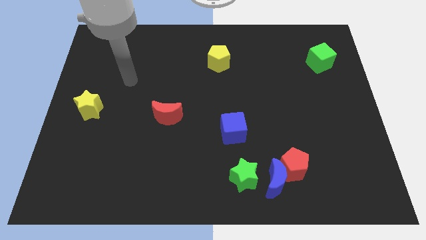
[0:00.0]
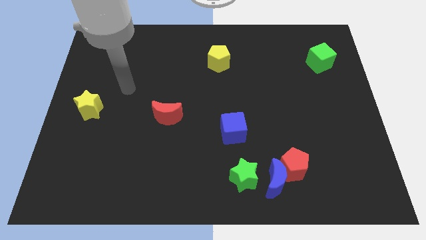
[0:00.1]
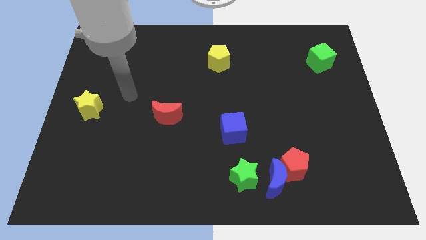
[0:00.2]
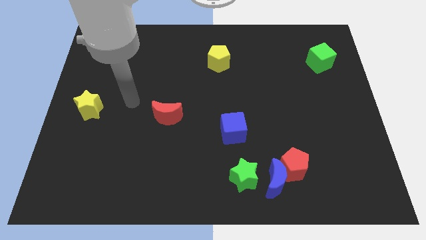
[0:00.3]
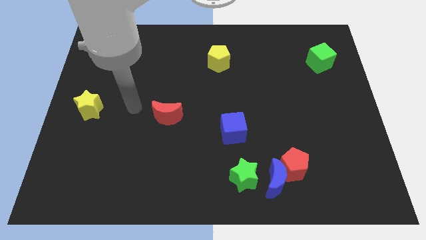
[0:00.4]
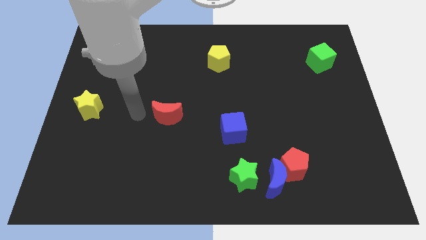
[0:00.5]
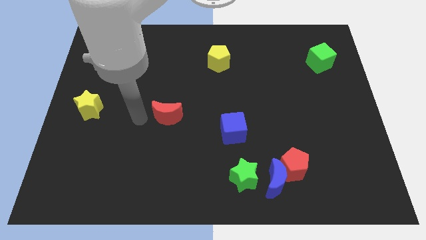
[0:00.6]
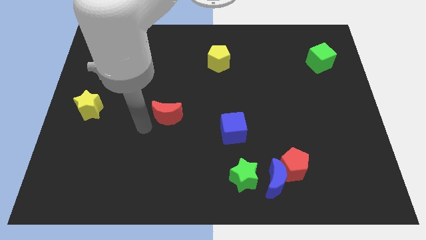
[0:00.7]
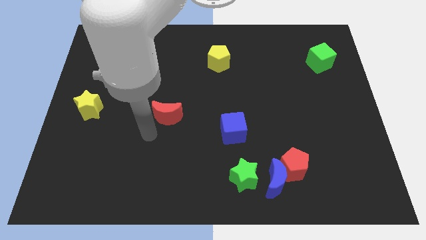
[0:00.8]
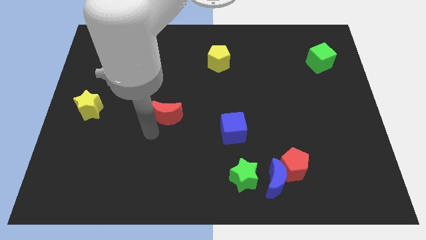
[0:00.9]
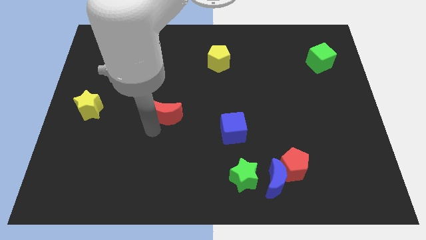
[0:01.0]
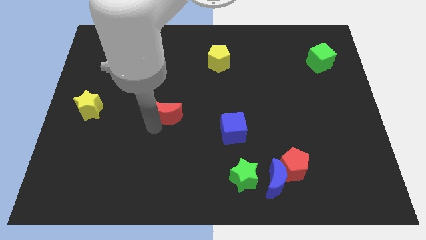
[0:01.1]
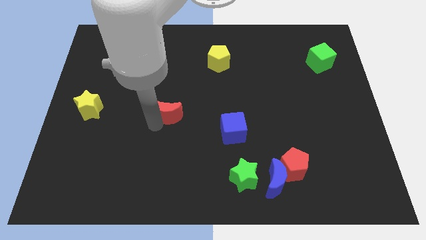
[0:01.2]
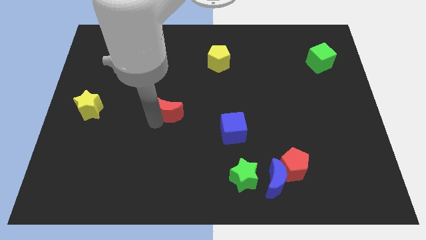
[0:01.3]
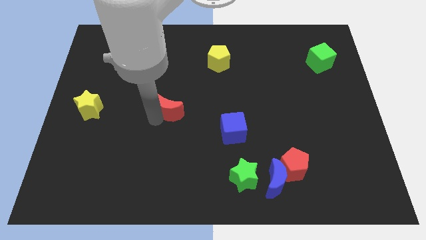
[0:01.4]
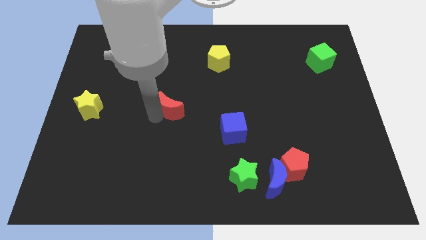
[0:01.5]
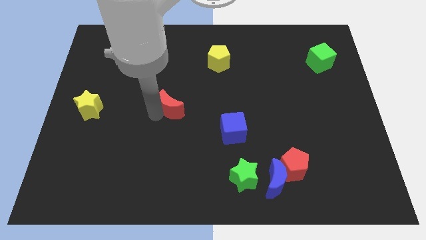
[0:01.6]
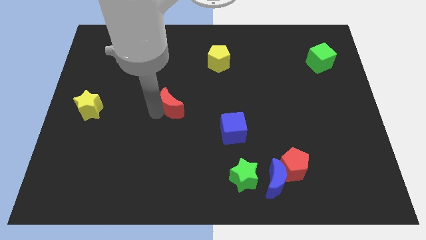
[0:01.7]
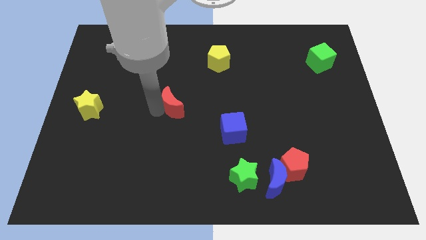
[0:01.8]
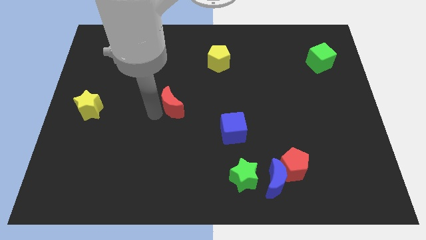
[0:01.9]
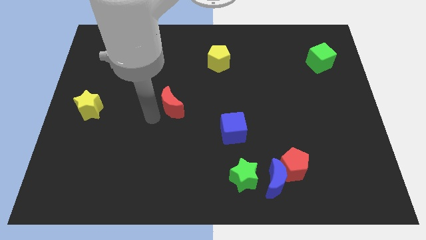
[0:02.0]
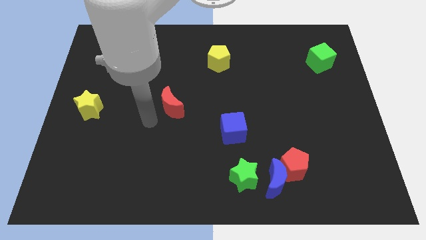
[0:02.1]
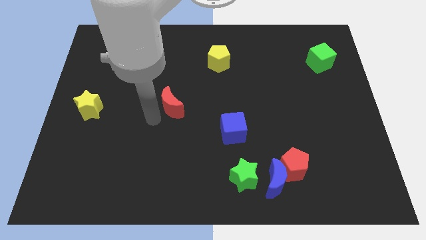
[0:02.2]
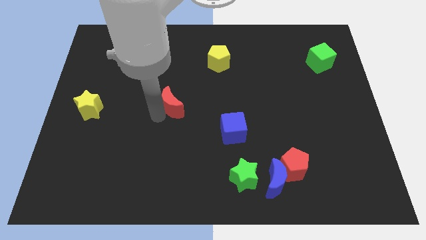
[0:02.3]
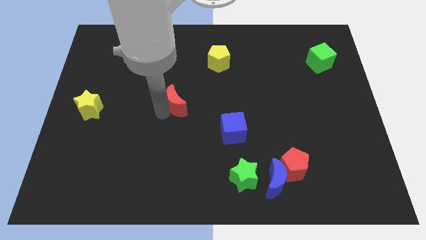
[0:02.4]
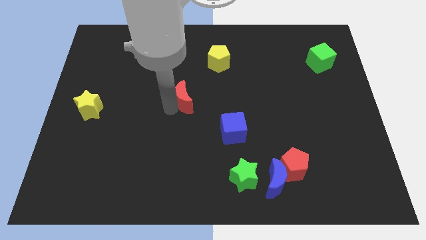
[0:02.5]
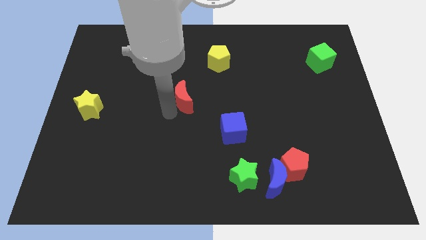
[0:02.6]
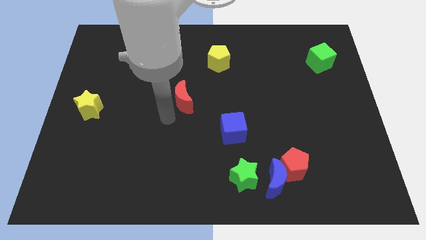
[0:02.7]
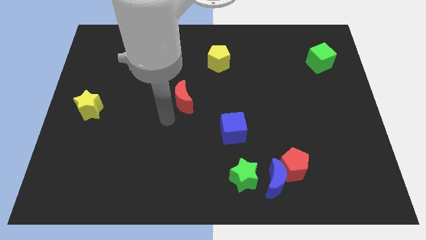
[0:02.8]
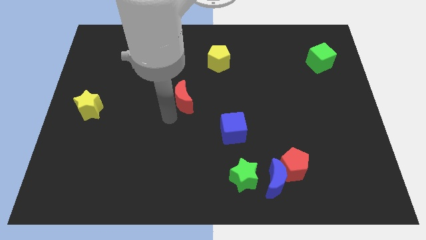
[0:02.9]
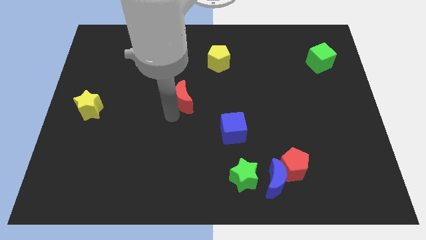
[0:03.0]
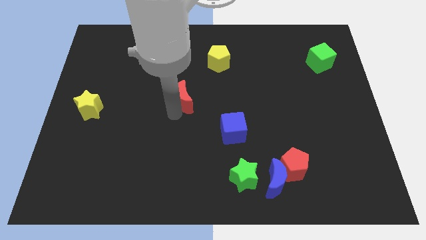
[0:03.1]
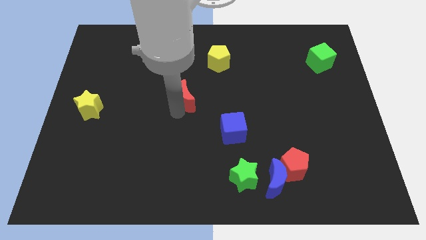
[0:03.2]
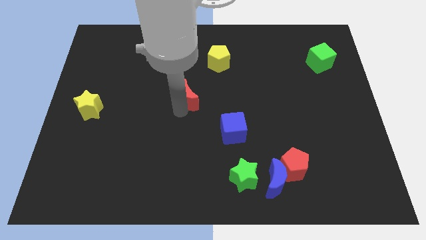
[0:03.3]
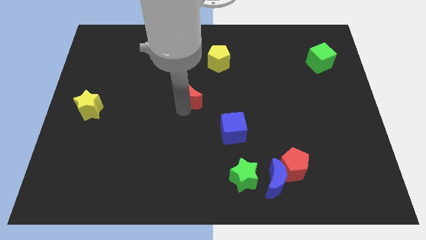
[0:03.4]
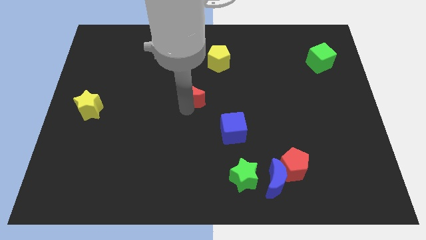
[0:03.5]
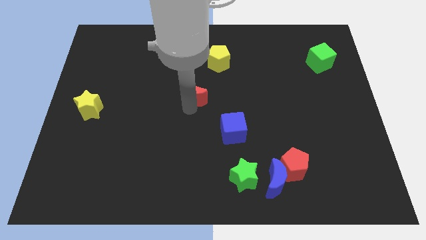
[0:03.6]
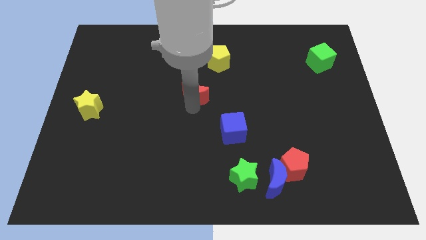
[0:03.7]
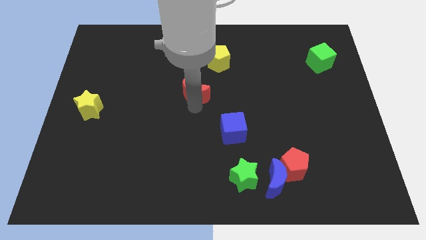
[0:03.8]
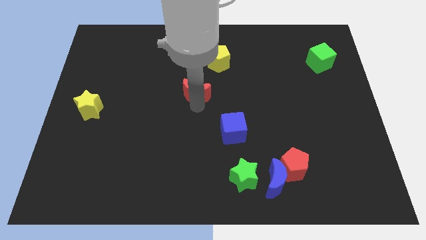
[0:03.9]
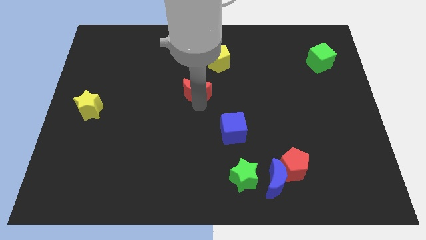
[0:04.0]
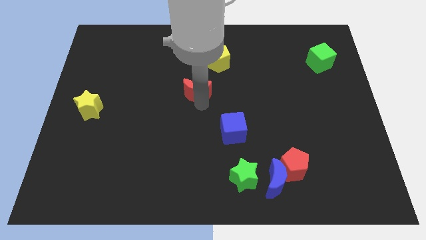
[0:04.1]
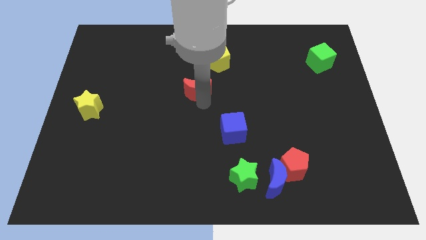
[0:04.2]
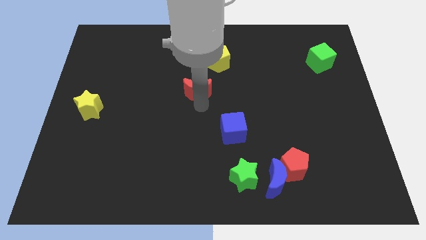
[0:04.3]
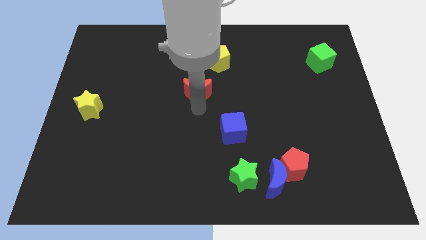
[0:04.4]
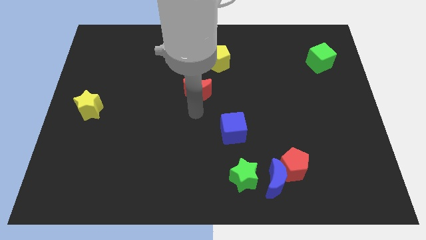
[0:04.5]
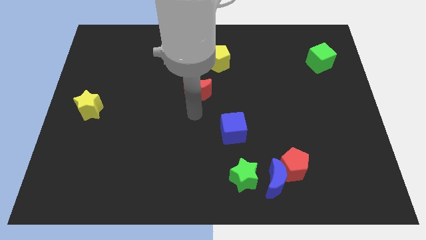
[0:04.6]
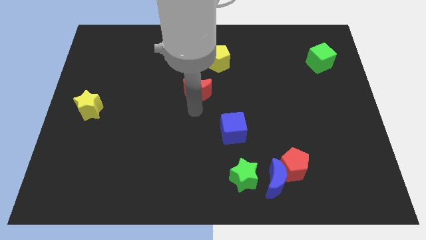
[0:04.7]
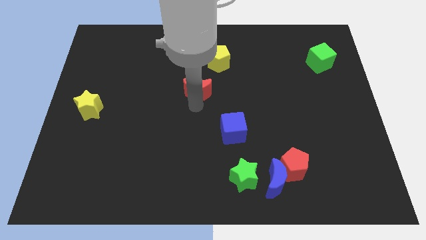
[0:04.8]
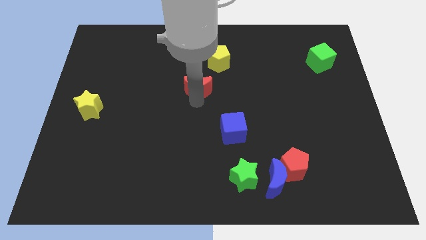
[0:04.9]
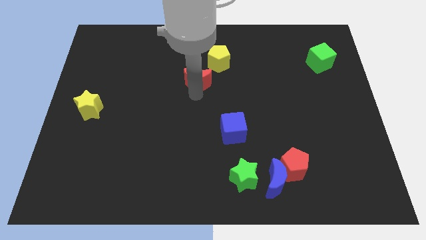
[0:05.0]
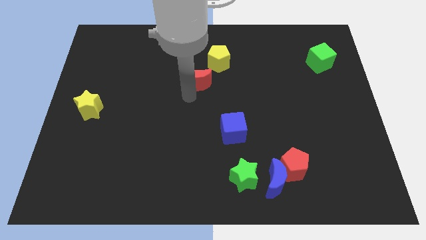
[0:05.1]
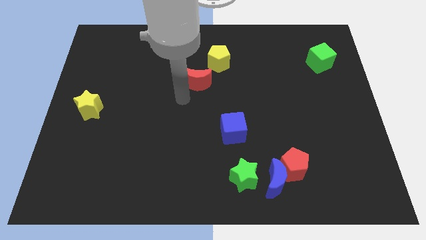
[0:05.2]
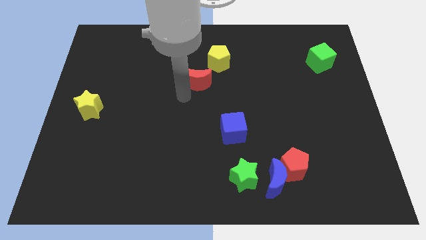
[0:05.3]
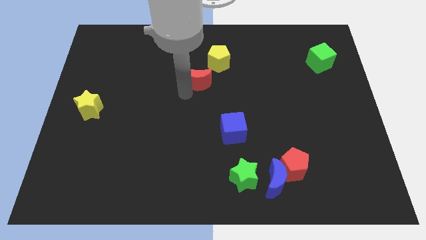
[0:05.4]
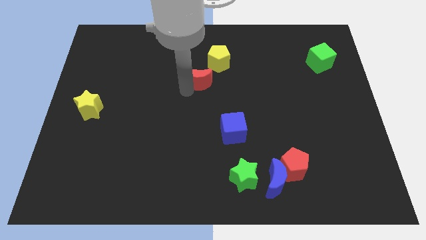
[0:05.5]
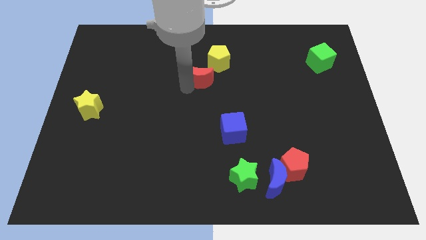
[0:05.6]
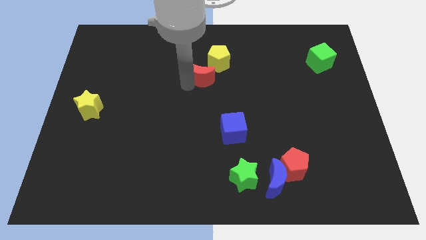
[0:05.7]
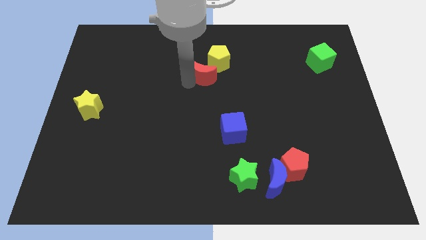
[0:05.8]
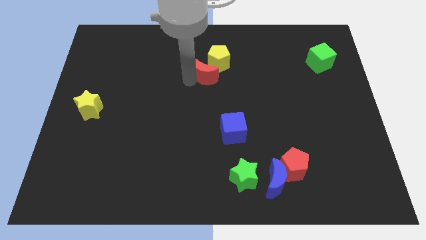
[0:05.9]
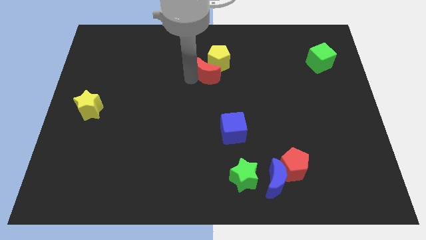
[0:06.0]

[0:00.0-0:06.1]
push the red moon next to the yellow pentagon

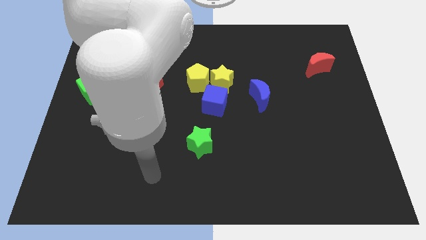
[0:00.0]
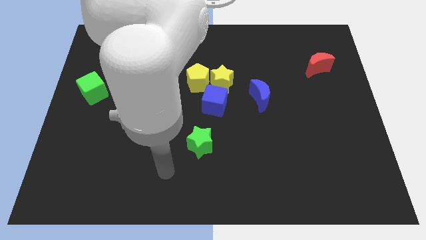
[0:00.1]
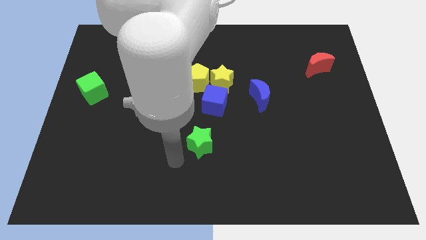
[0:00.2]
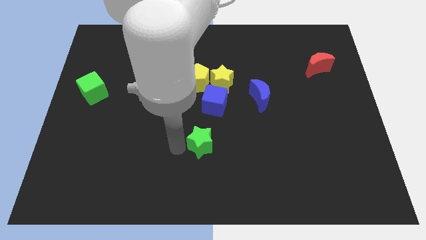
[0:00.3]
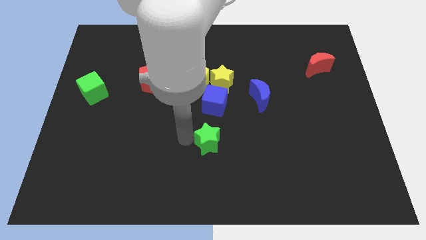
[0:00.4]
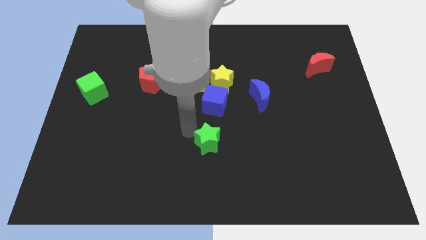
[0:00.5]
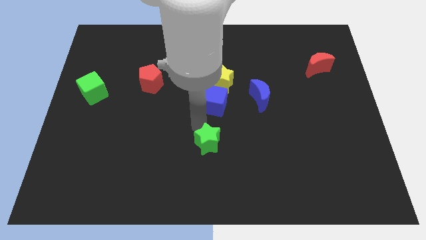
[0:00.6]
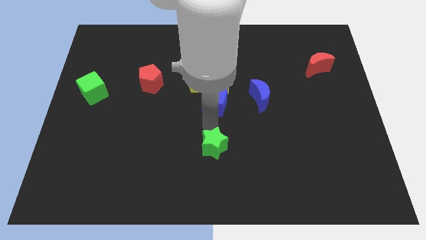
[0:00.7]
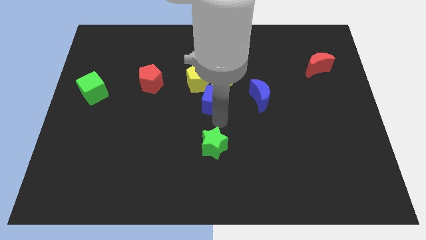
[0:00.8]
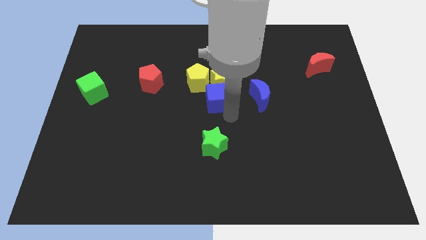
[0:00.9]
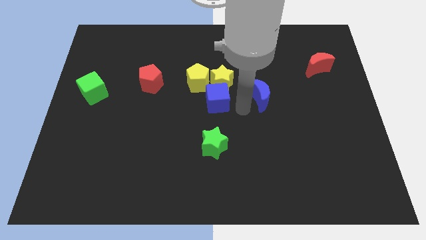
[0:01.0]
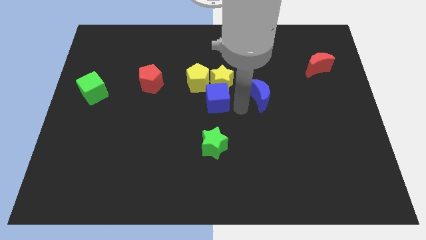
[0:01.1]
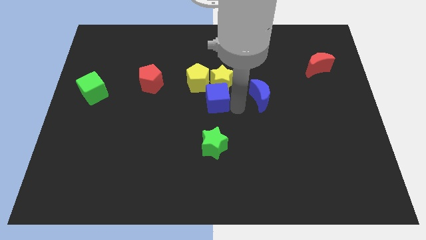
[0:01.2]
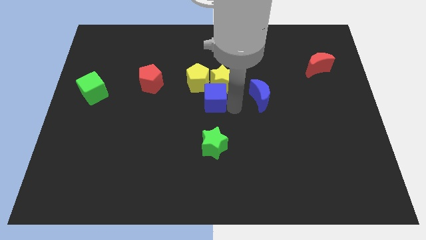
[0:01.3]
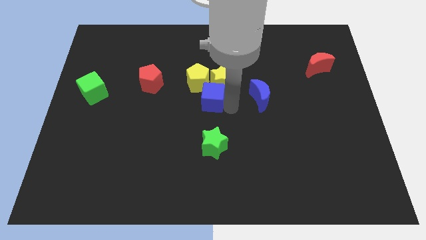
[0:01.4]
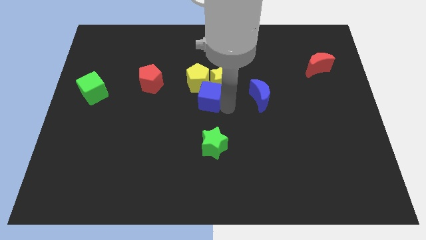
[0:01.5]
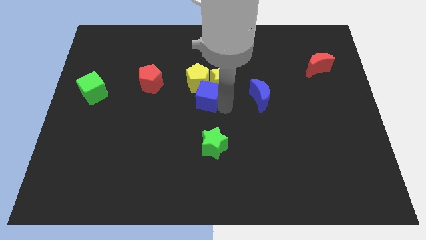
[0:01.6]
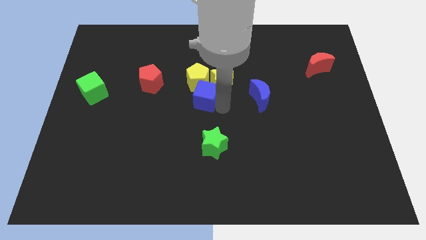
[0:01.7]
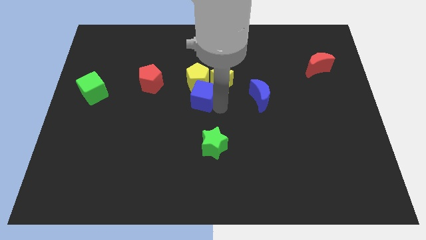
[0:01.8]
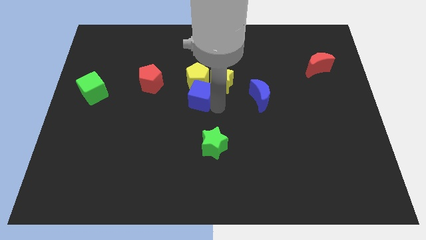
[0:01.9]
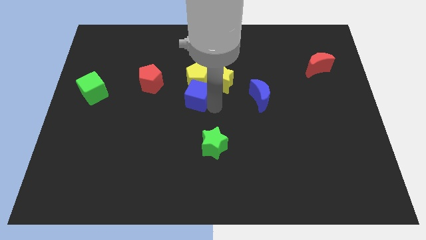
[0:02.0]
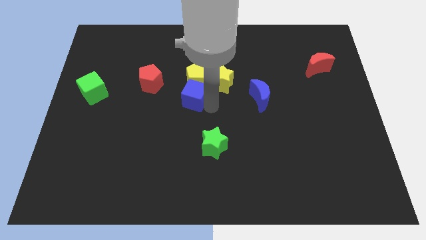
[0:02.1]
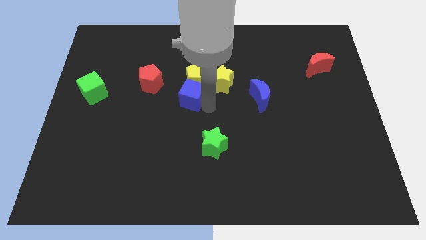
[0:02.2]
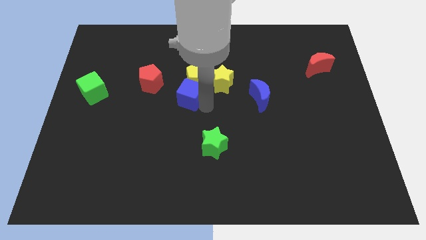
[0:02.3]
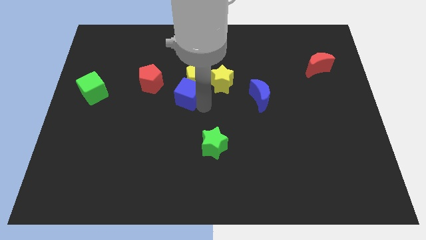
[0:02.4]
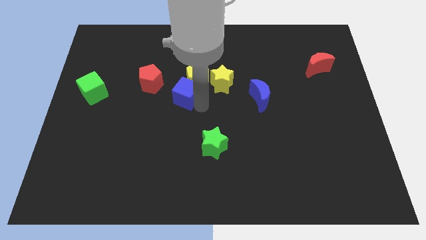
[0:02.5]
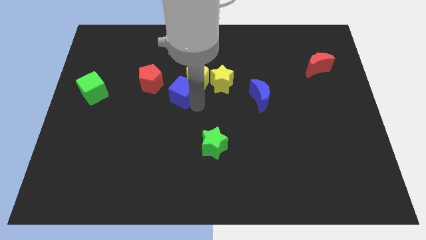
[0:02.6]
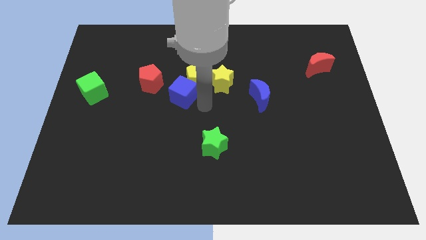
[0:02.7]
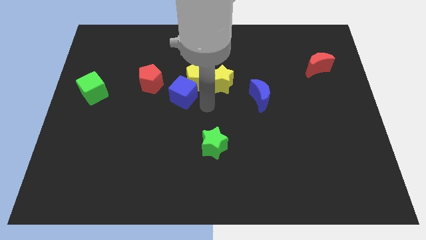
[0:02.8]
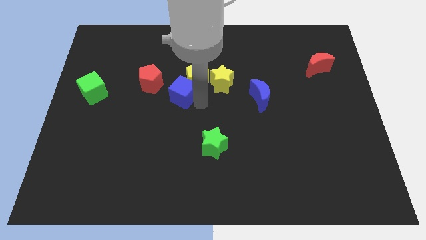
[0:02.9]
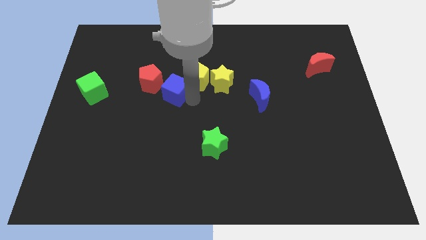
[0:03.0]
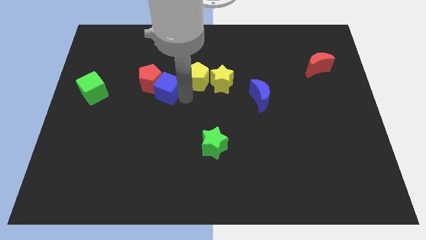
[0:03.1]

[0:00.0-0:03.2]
move the blue cube next to the red pentagon
